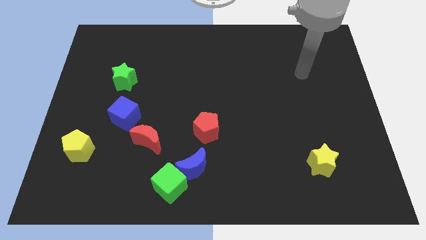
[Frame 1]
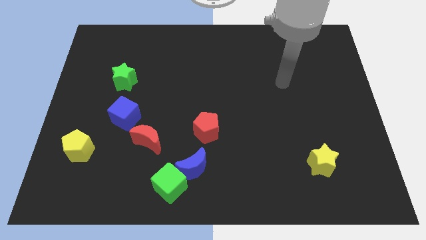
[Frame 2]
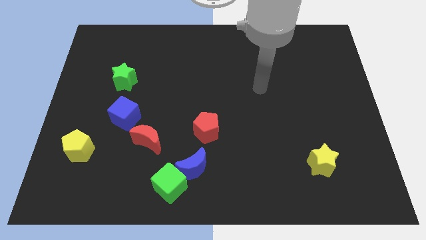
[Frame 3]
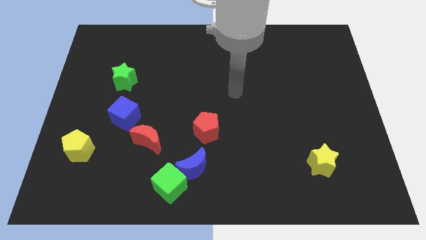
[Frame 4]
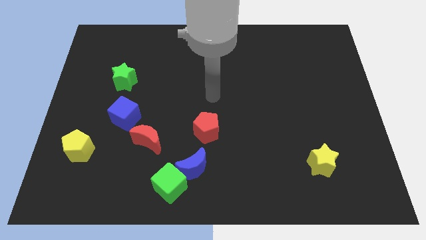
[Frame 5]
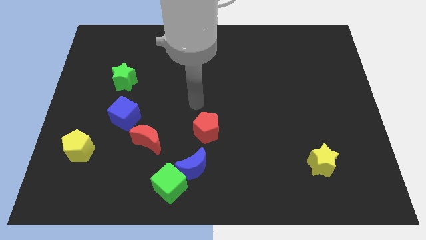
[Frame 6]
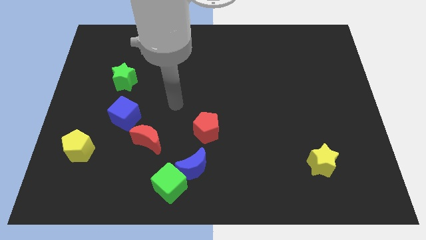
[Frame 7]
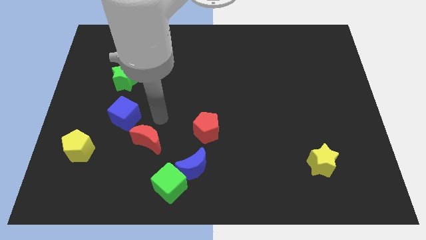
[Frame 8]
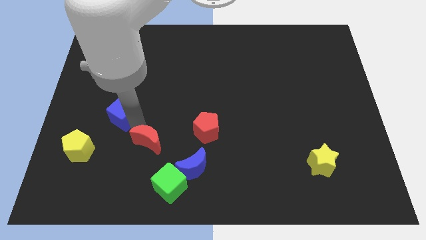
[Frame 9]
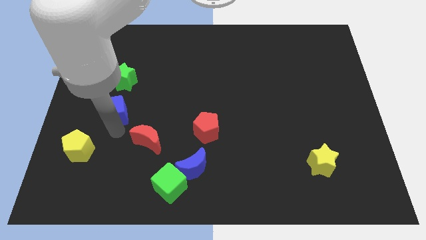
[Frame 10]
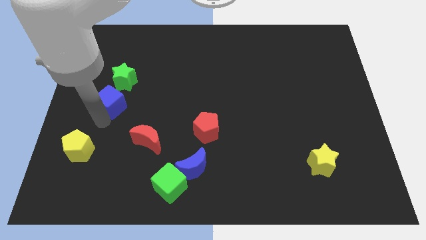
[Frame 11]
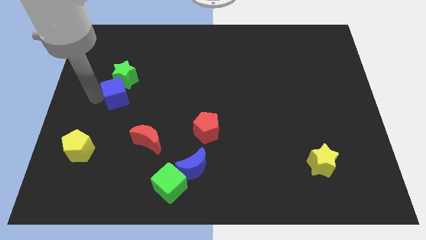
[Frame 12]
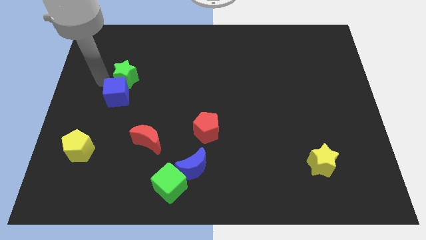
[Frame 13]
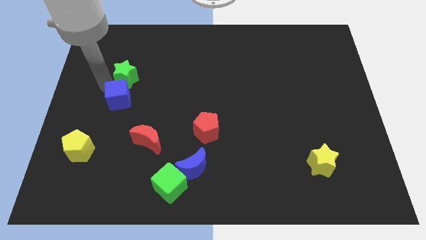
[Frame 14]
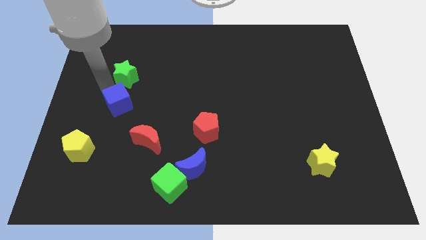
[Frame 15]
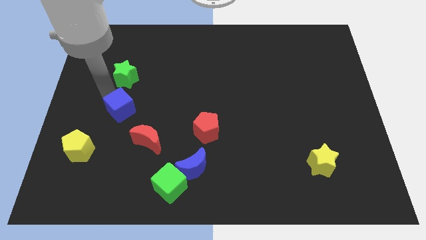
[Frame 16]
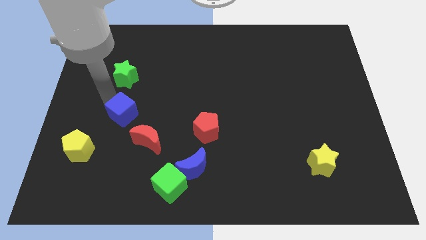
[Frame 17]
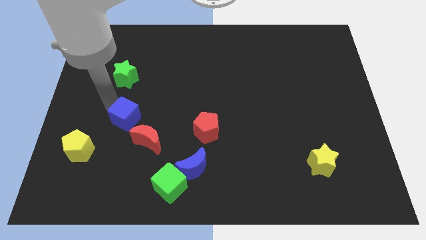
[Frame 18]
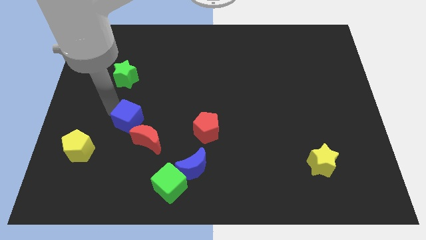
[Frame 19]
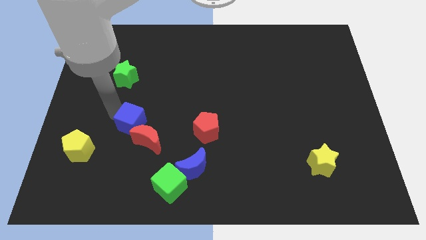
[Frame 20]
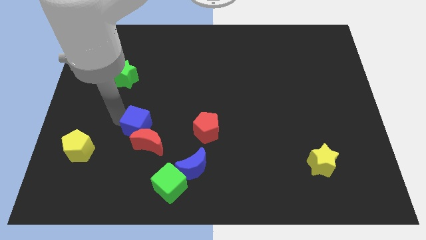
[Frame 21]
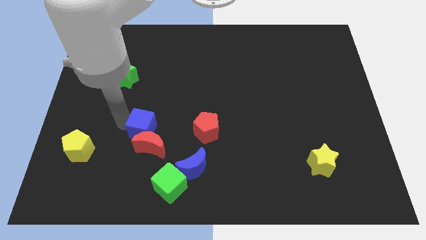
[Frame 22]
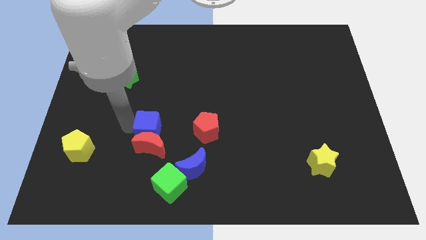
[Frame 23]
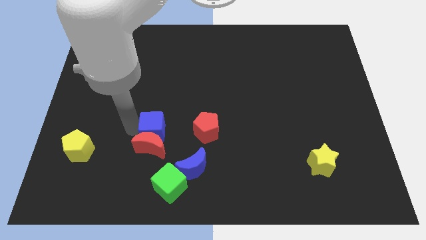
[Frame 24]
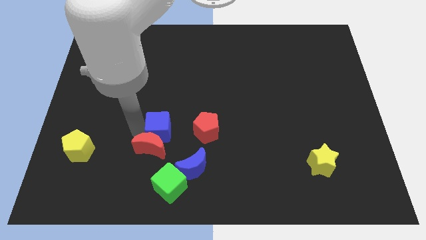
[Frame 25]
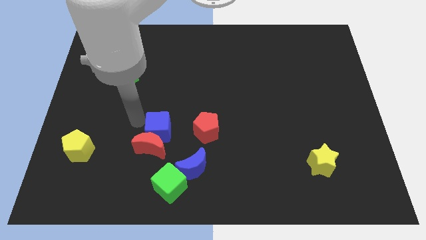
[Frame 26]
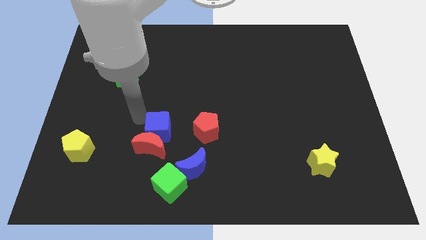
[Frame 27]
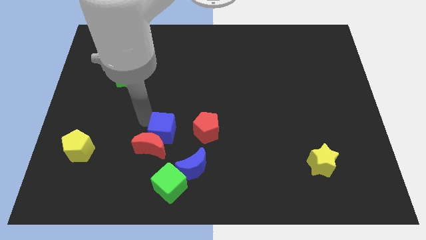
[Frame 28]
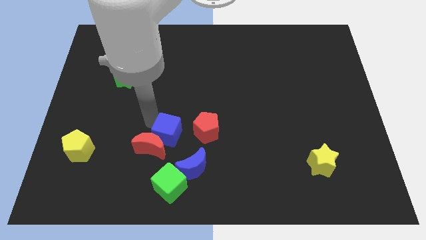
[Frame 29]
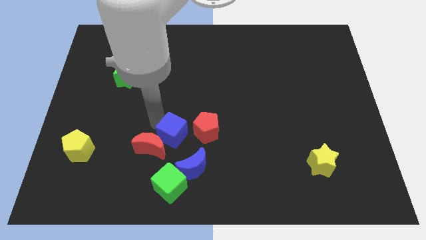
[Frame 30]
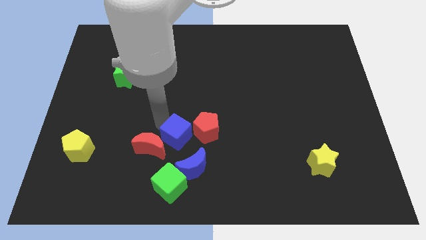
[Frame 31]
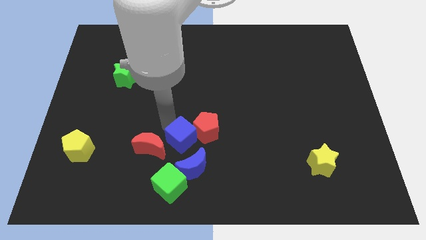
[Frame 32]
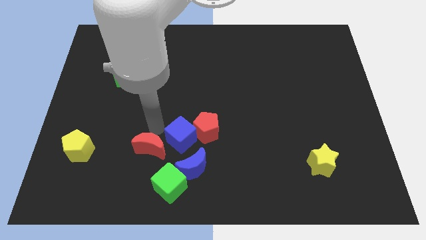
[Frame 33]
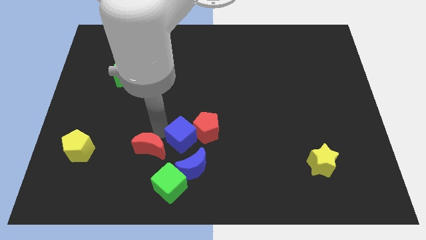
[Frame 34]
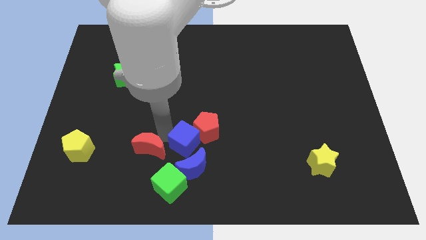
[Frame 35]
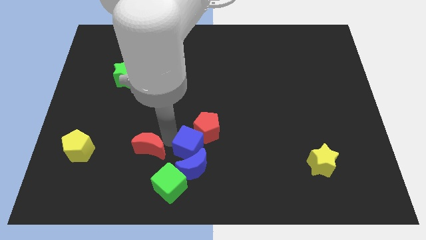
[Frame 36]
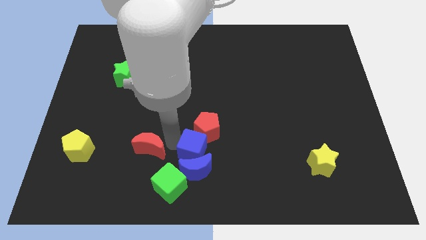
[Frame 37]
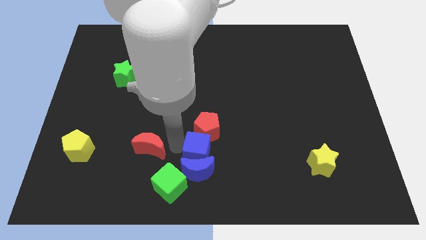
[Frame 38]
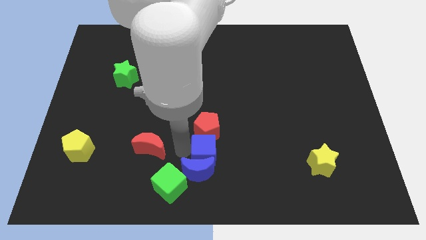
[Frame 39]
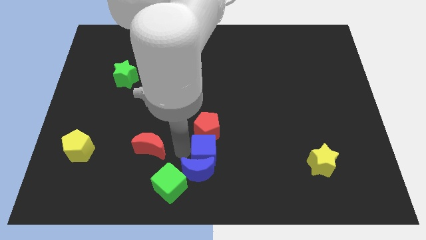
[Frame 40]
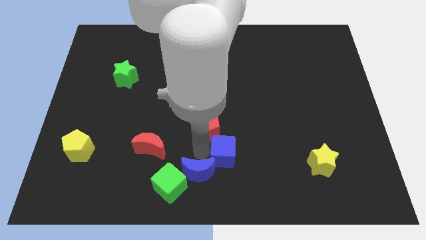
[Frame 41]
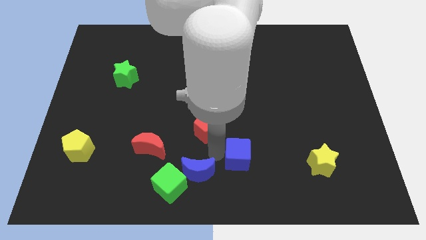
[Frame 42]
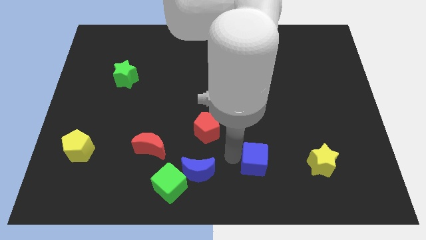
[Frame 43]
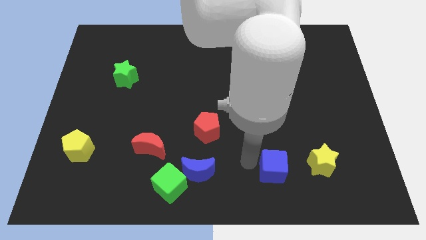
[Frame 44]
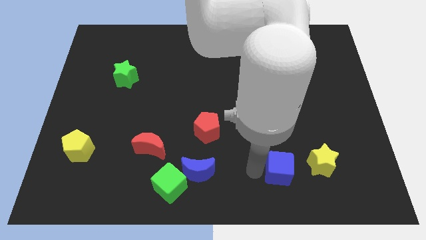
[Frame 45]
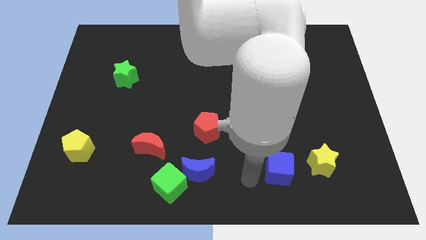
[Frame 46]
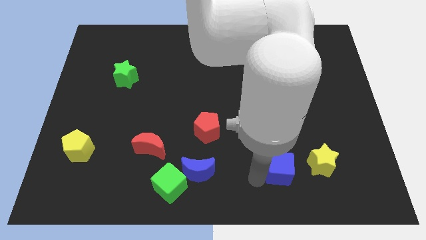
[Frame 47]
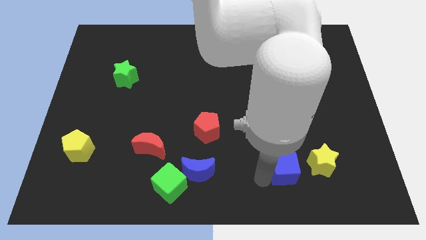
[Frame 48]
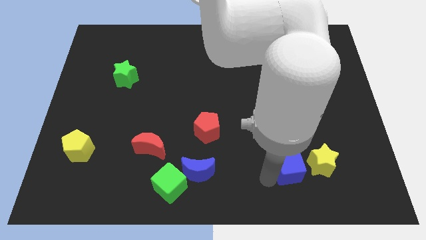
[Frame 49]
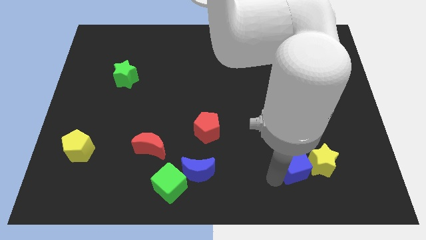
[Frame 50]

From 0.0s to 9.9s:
push the blue cube close to the yellow star

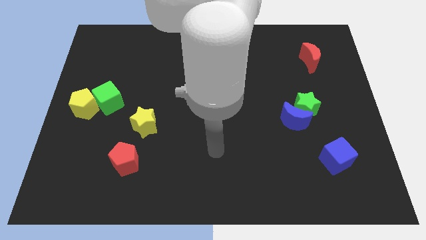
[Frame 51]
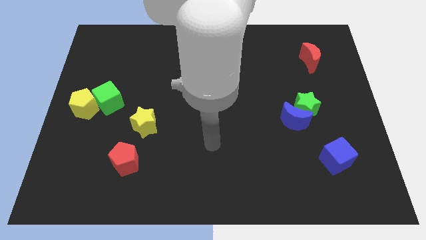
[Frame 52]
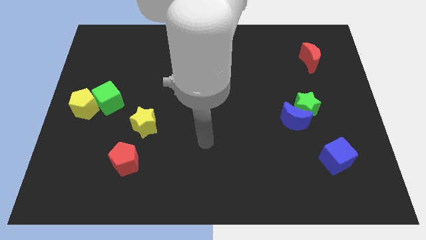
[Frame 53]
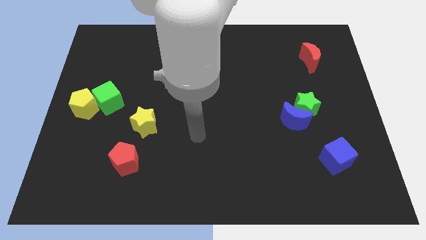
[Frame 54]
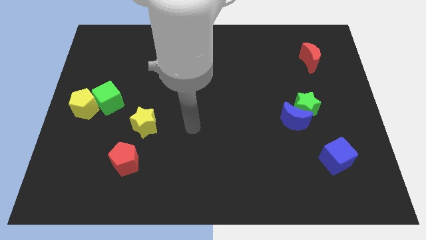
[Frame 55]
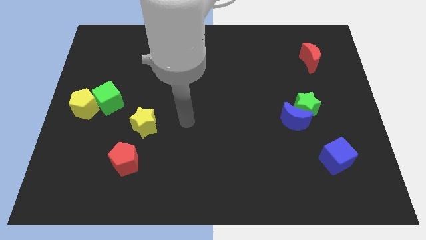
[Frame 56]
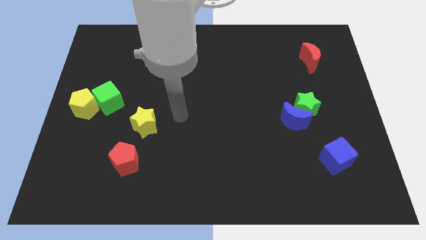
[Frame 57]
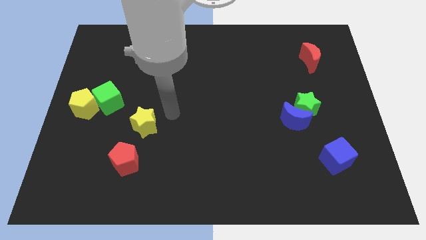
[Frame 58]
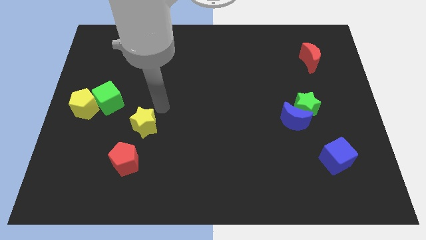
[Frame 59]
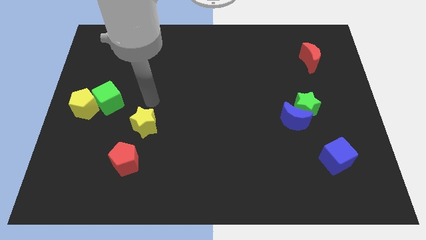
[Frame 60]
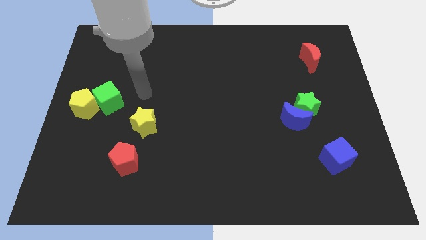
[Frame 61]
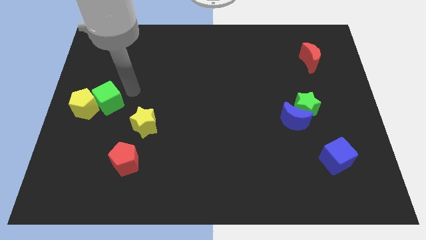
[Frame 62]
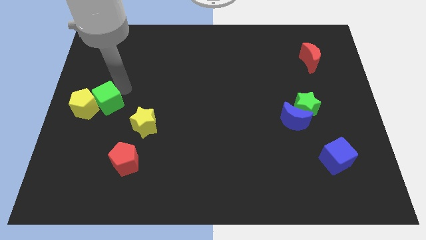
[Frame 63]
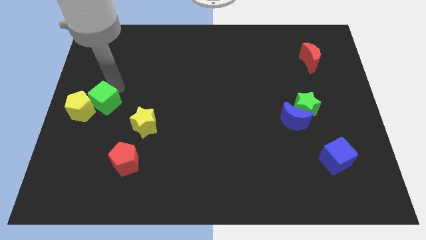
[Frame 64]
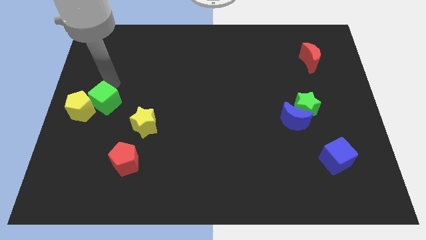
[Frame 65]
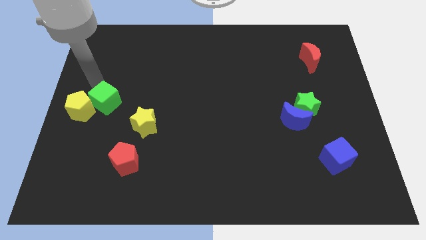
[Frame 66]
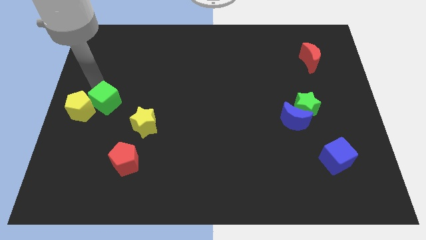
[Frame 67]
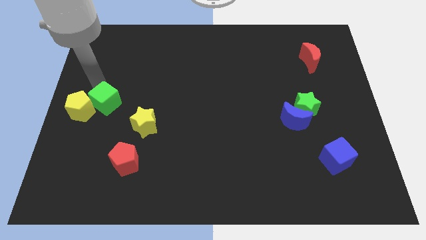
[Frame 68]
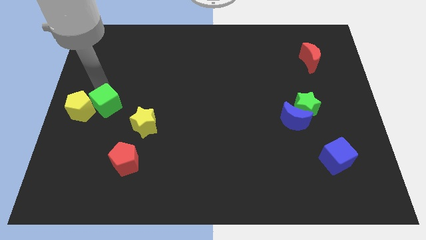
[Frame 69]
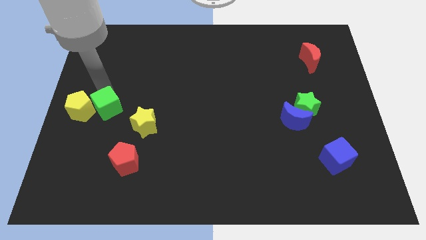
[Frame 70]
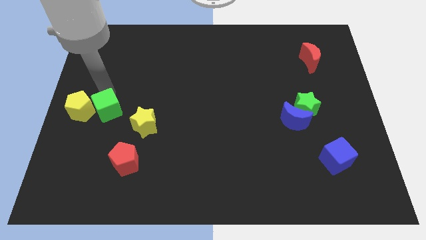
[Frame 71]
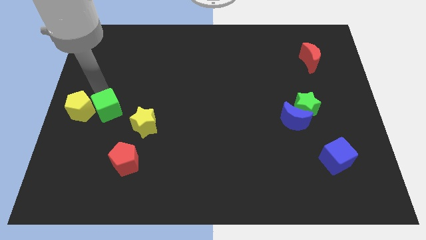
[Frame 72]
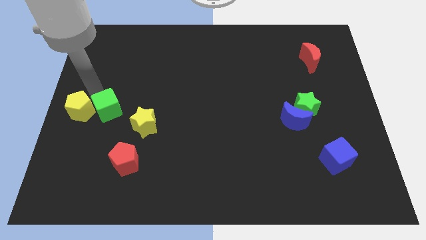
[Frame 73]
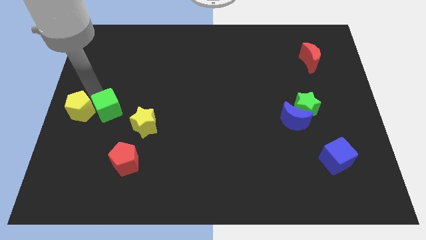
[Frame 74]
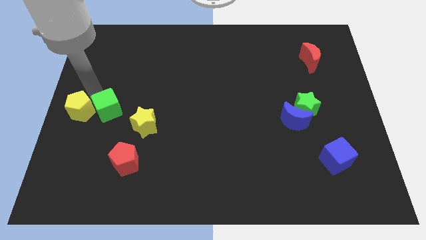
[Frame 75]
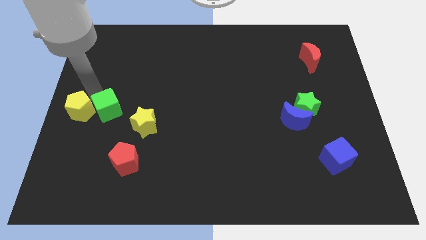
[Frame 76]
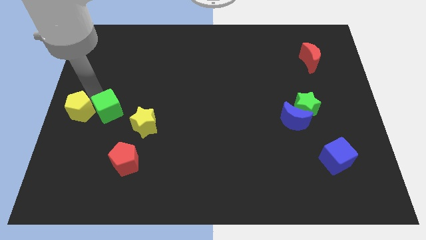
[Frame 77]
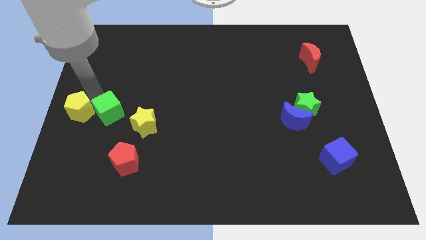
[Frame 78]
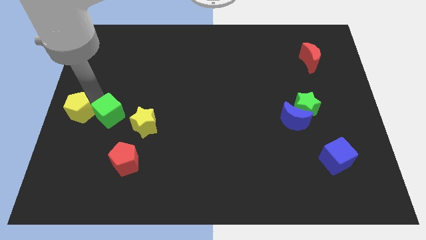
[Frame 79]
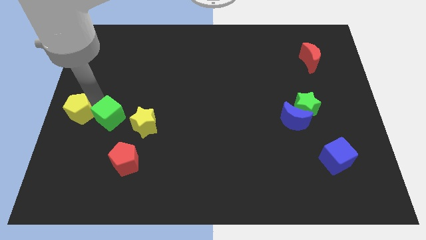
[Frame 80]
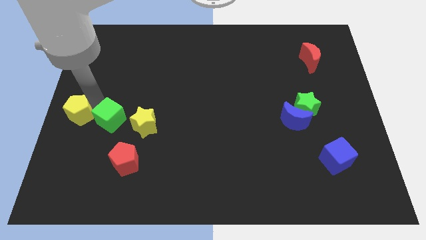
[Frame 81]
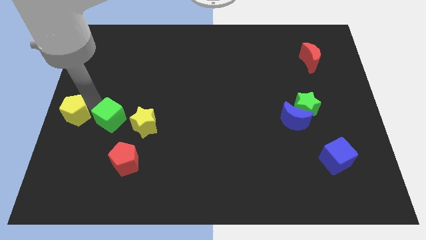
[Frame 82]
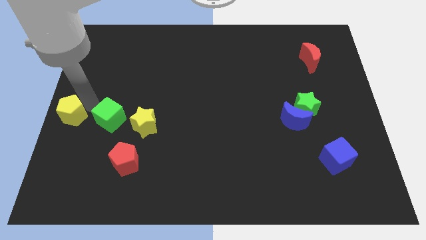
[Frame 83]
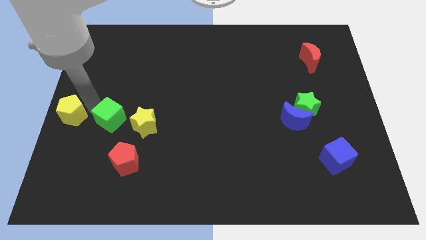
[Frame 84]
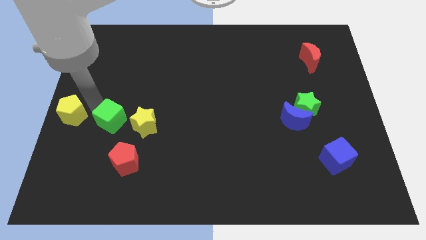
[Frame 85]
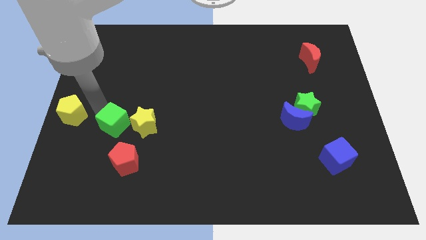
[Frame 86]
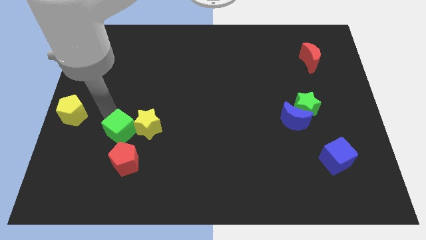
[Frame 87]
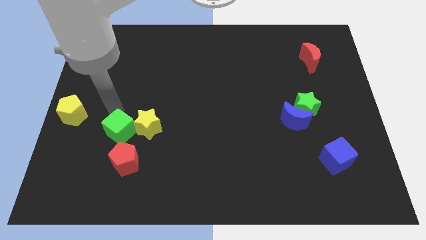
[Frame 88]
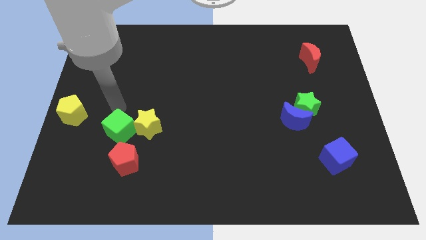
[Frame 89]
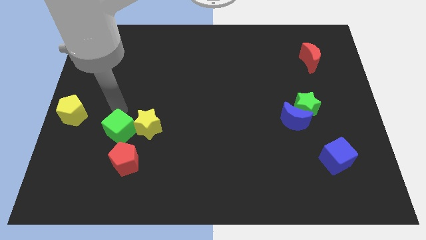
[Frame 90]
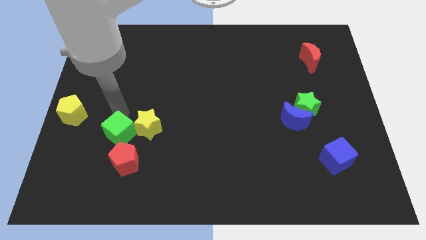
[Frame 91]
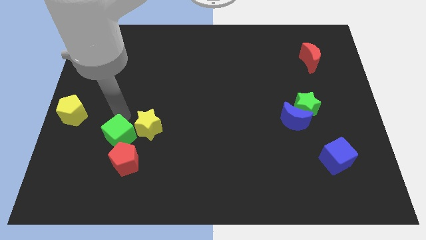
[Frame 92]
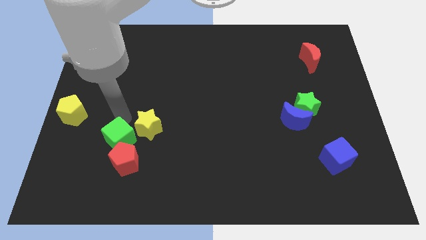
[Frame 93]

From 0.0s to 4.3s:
move the green cube towards the red pentagon
